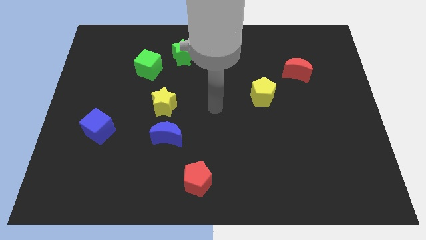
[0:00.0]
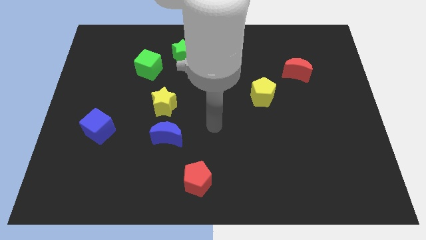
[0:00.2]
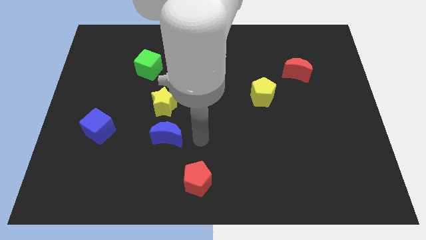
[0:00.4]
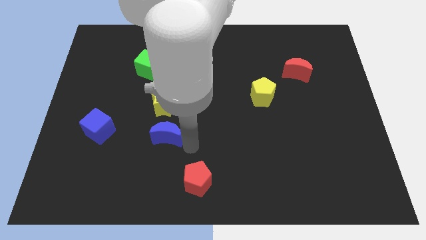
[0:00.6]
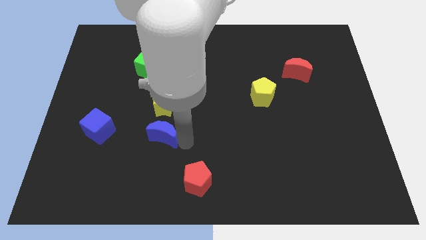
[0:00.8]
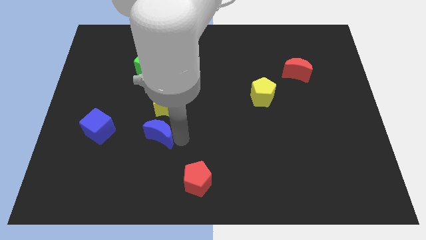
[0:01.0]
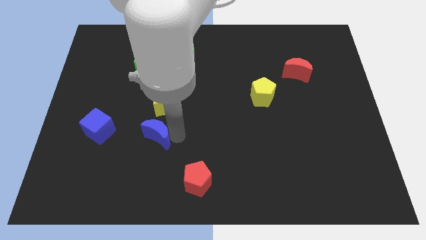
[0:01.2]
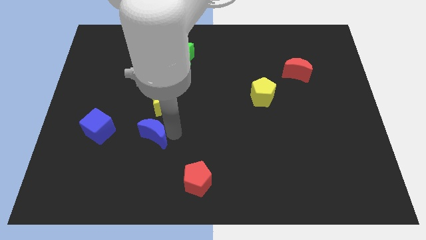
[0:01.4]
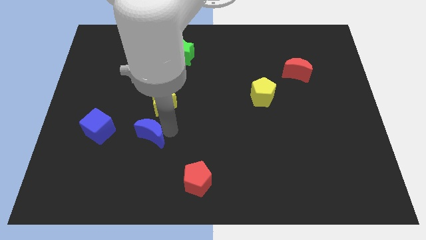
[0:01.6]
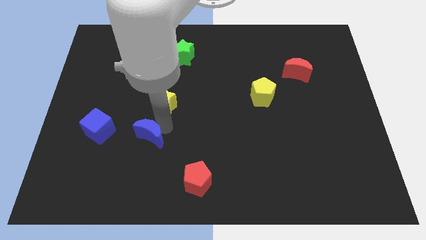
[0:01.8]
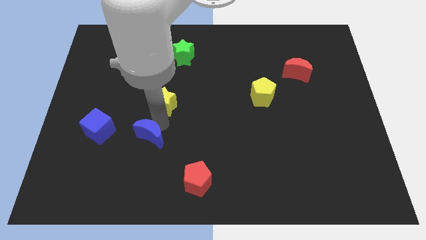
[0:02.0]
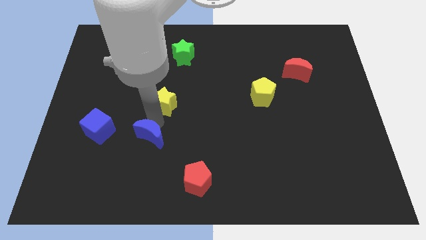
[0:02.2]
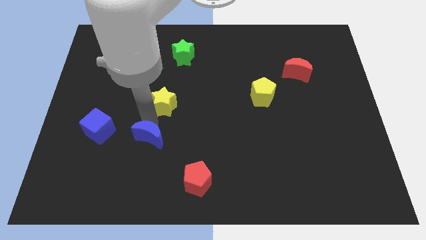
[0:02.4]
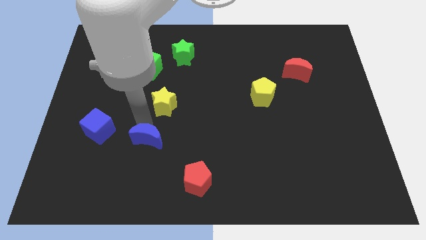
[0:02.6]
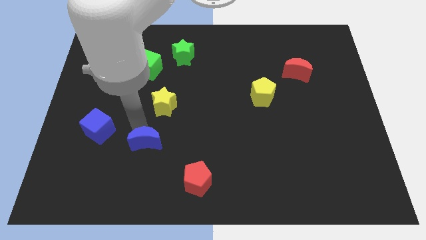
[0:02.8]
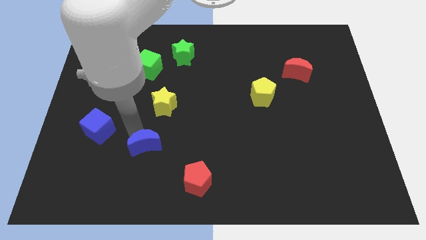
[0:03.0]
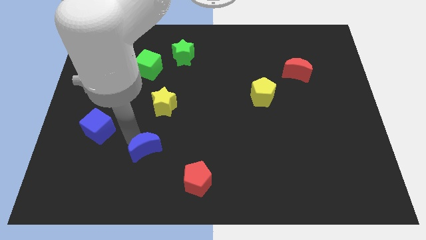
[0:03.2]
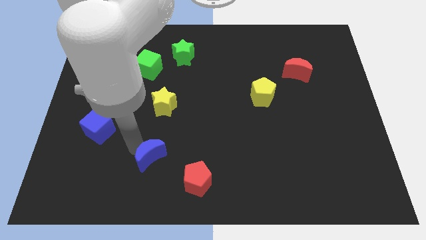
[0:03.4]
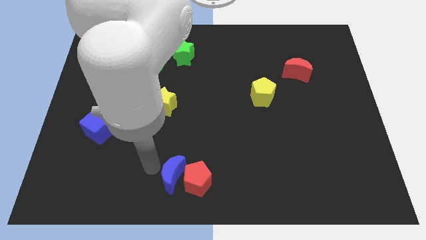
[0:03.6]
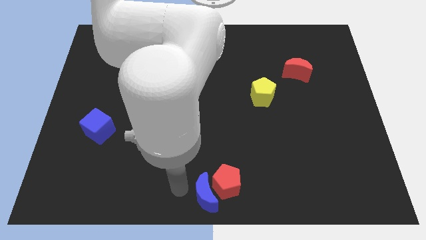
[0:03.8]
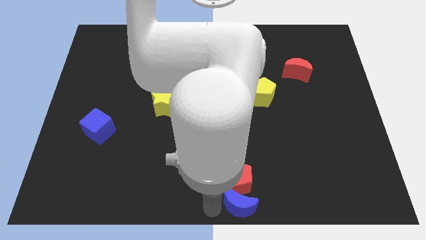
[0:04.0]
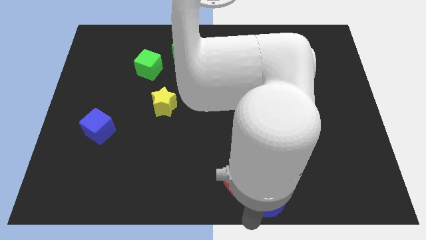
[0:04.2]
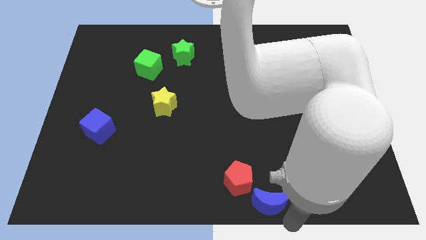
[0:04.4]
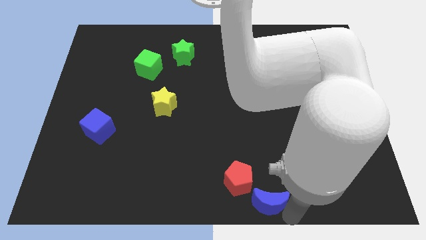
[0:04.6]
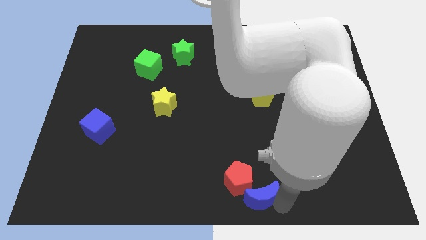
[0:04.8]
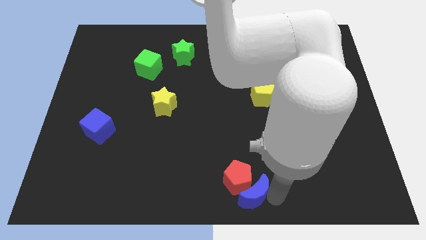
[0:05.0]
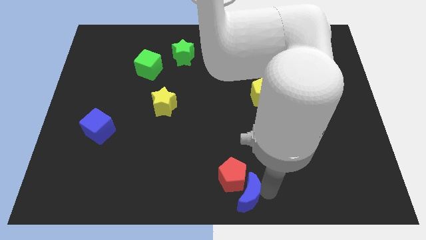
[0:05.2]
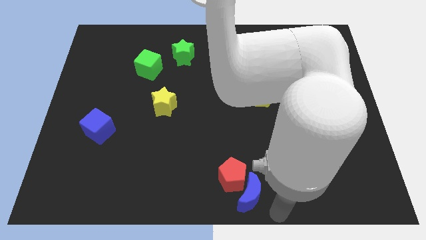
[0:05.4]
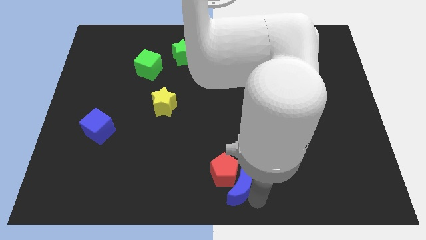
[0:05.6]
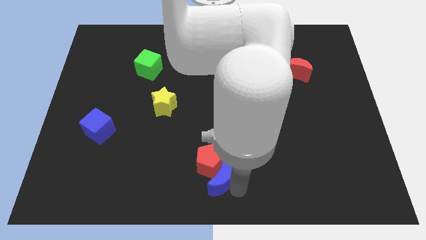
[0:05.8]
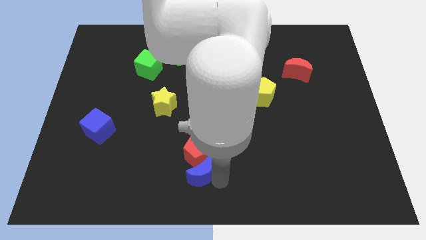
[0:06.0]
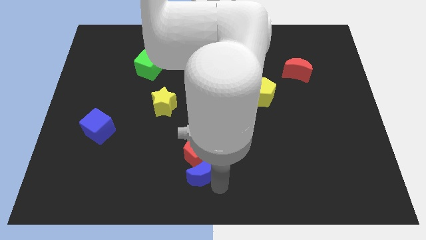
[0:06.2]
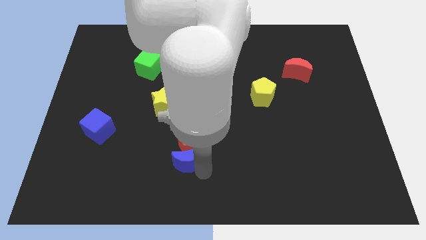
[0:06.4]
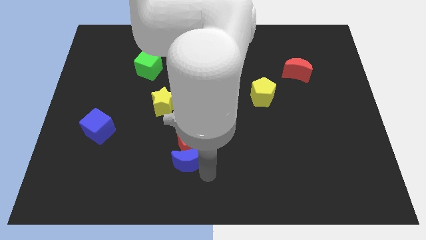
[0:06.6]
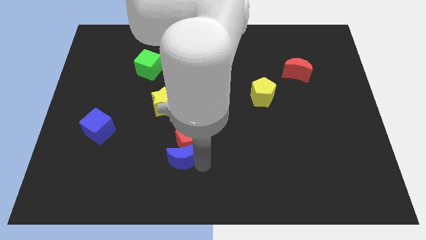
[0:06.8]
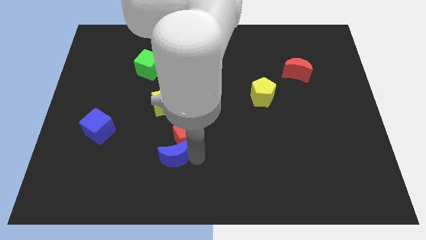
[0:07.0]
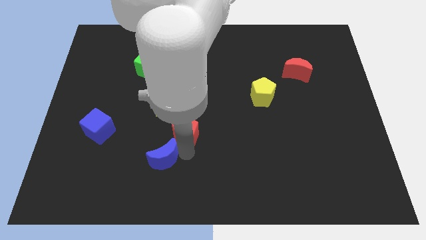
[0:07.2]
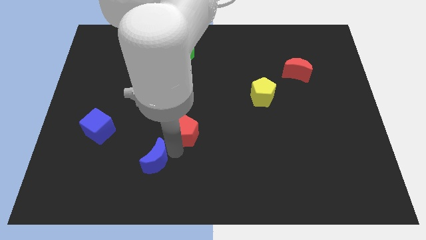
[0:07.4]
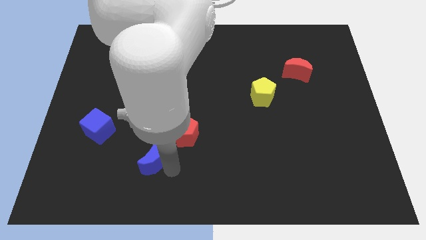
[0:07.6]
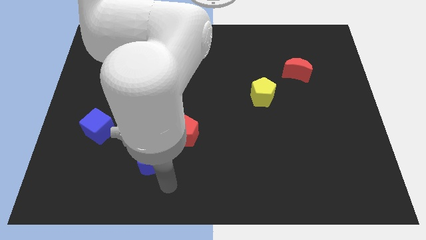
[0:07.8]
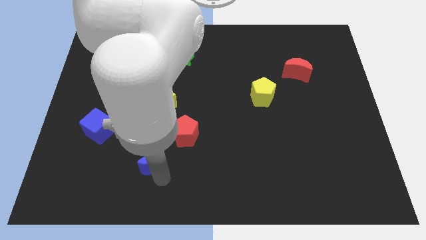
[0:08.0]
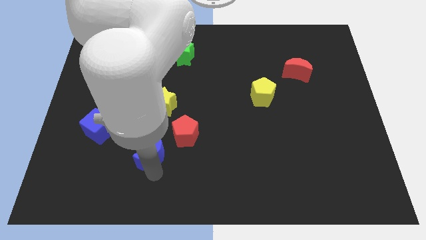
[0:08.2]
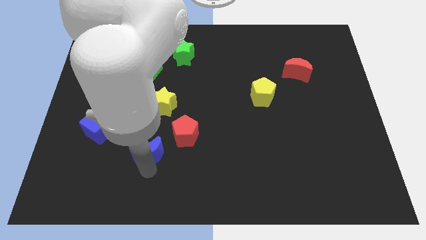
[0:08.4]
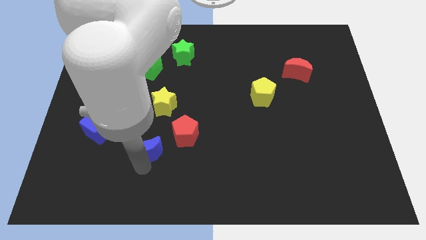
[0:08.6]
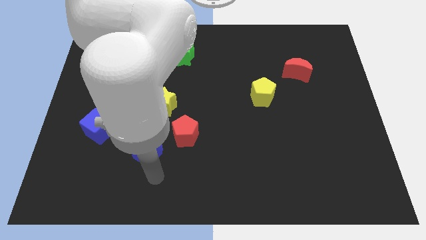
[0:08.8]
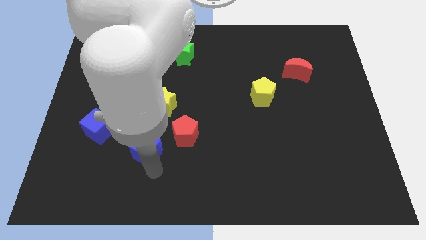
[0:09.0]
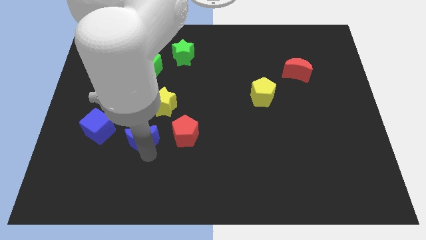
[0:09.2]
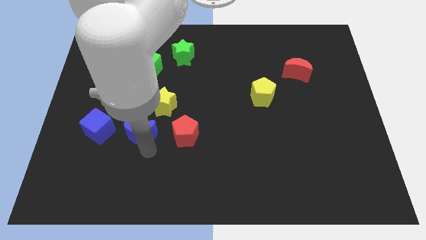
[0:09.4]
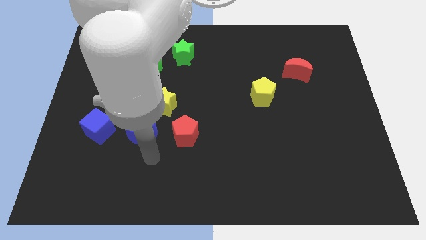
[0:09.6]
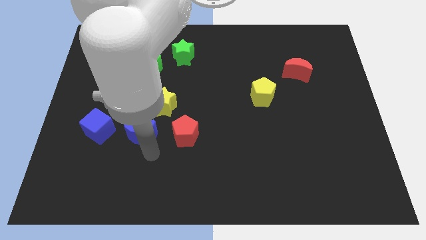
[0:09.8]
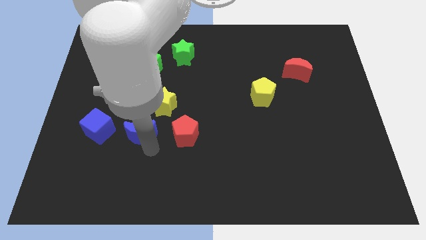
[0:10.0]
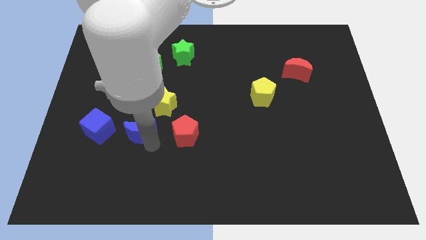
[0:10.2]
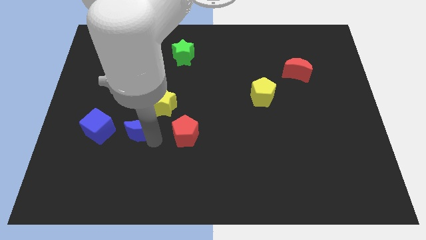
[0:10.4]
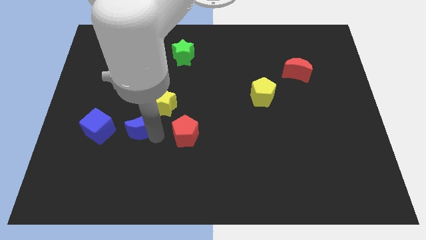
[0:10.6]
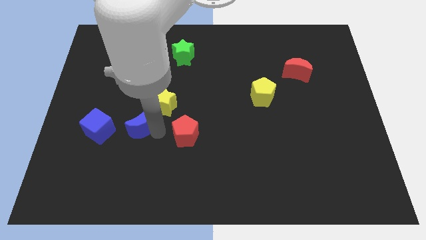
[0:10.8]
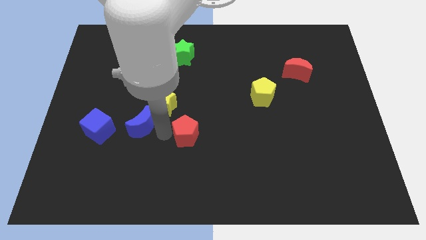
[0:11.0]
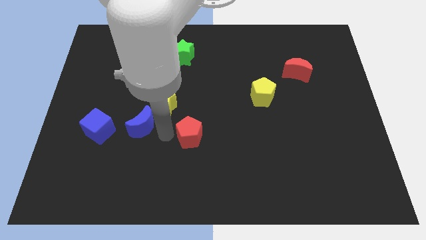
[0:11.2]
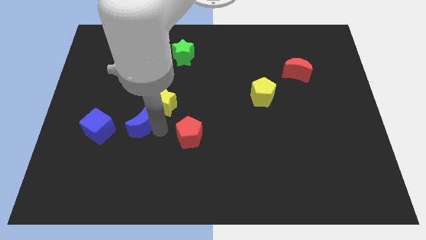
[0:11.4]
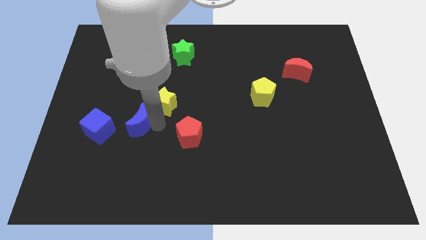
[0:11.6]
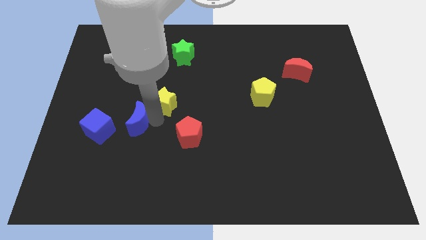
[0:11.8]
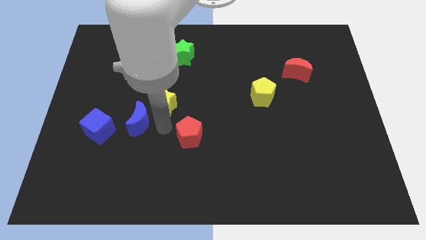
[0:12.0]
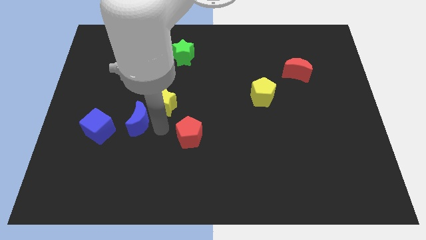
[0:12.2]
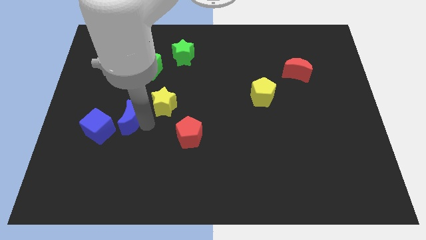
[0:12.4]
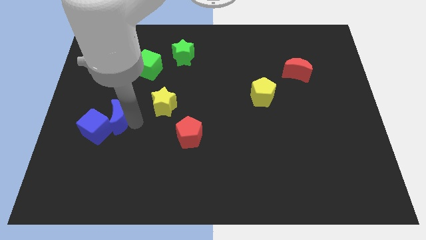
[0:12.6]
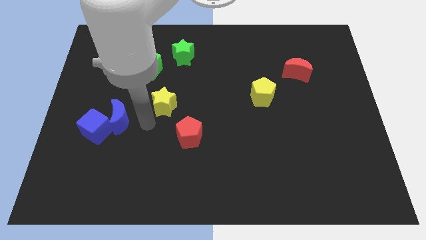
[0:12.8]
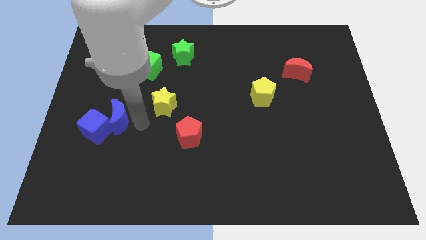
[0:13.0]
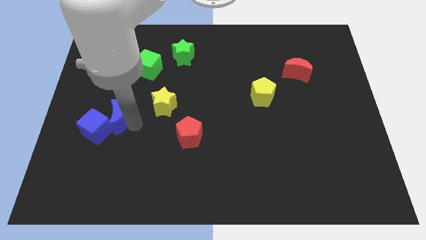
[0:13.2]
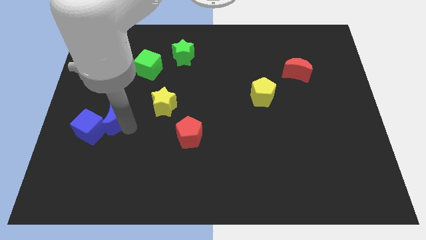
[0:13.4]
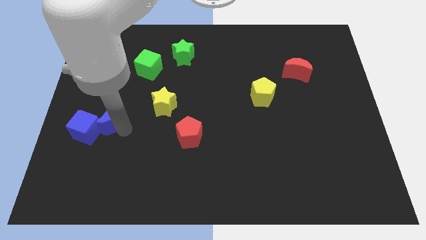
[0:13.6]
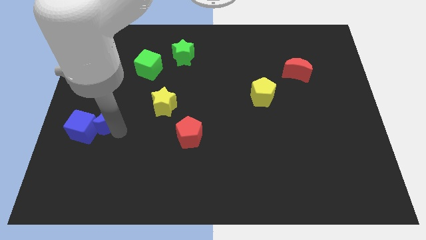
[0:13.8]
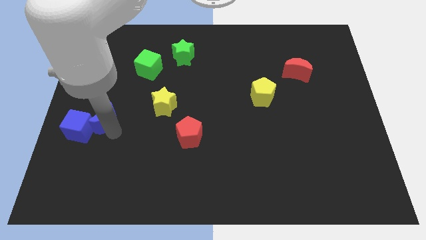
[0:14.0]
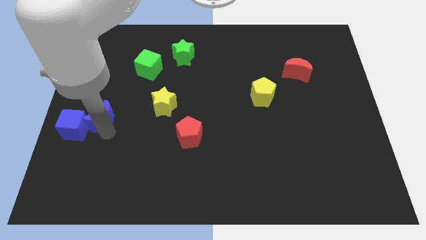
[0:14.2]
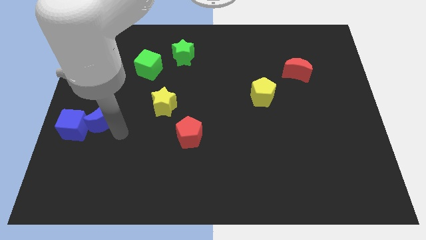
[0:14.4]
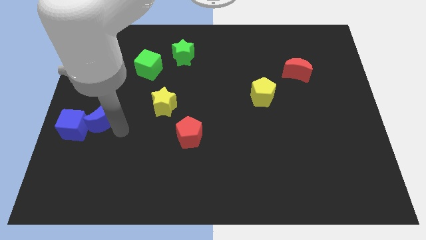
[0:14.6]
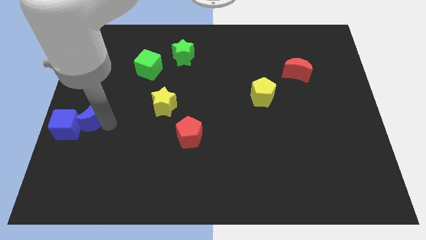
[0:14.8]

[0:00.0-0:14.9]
push the blue moon to the left side of the board
